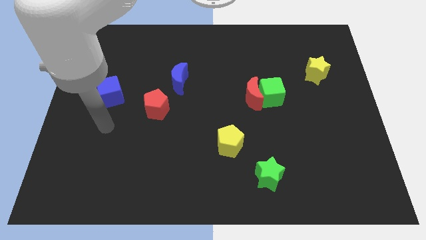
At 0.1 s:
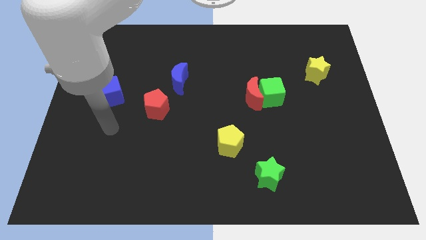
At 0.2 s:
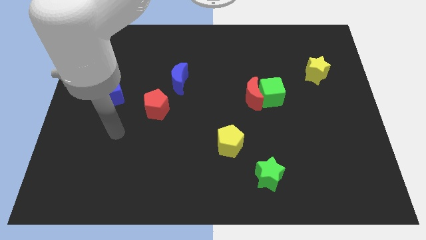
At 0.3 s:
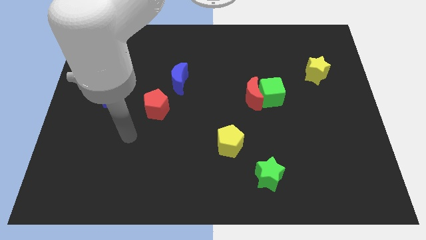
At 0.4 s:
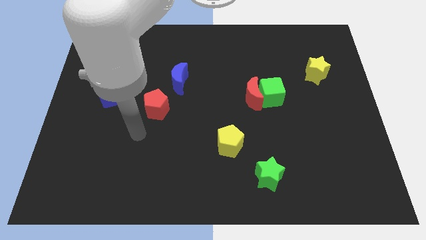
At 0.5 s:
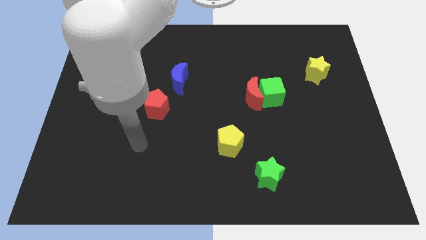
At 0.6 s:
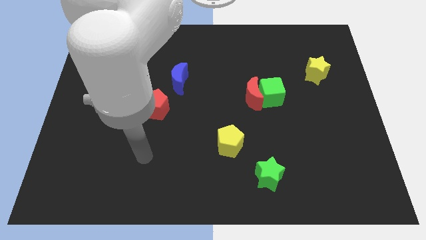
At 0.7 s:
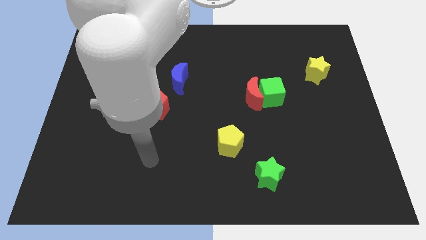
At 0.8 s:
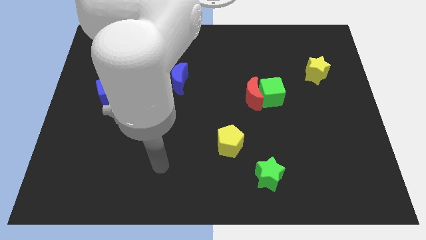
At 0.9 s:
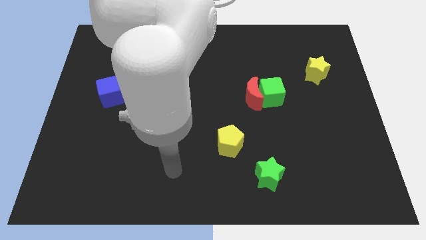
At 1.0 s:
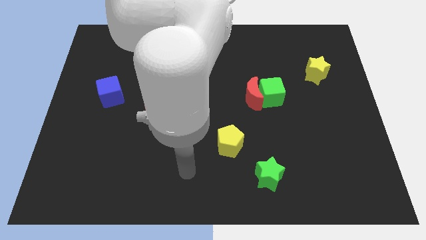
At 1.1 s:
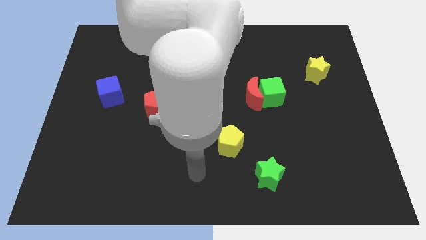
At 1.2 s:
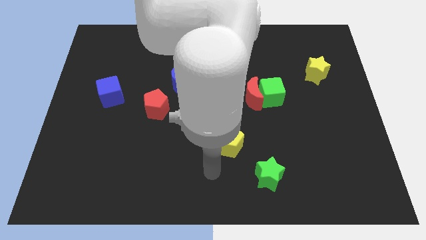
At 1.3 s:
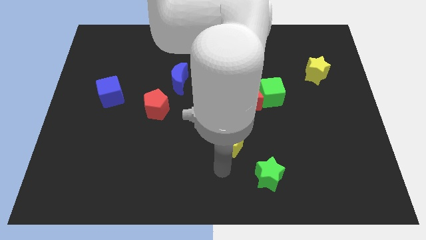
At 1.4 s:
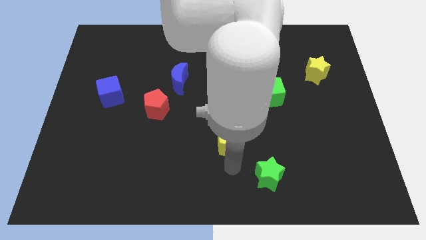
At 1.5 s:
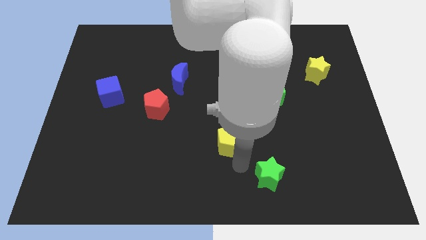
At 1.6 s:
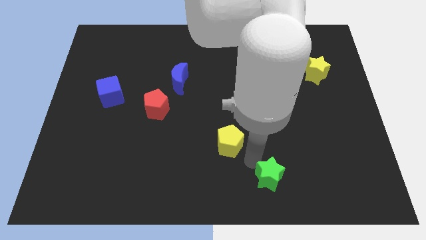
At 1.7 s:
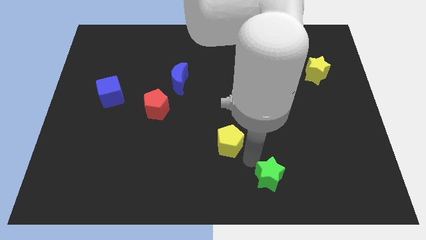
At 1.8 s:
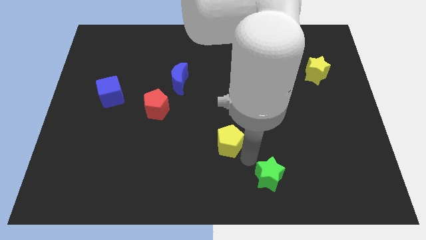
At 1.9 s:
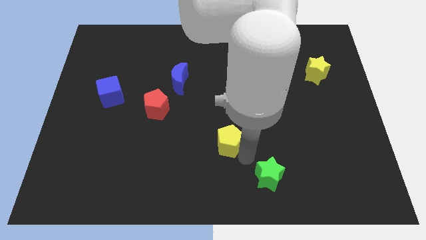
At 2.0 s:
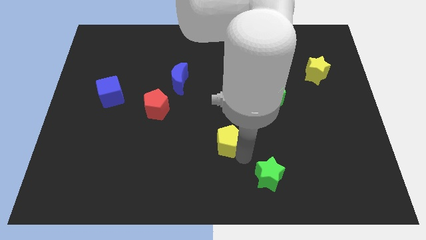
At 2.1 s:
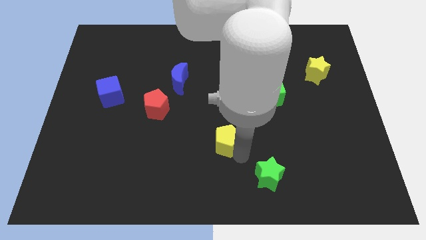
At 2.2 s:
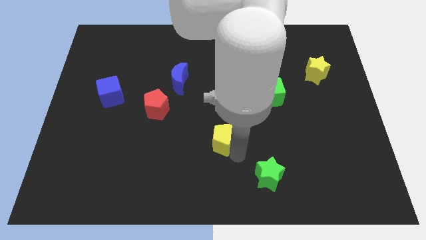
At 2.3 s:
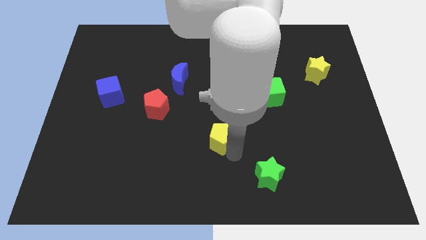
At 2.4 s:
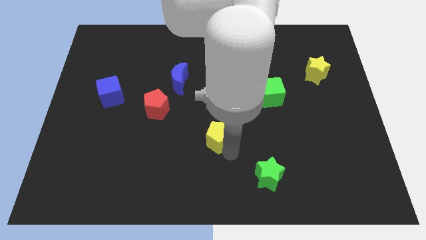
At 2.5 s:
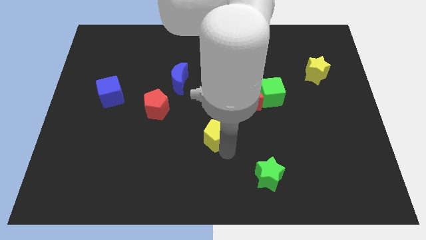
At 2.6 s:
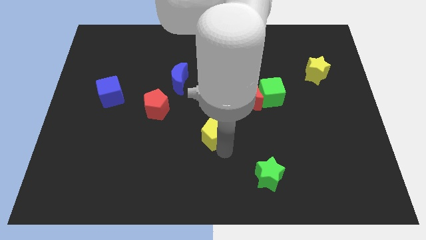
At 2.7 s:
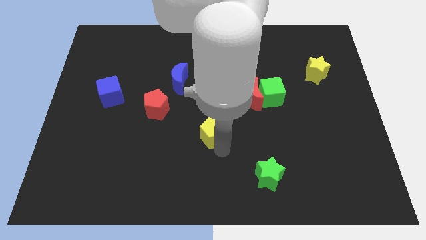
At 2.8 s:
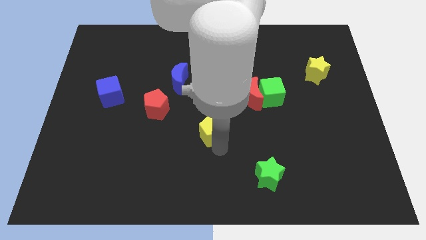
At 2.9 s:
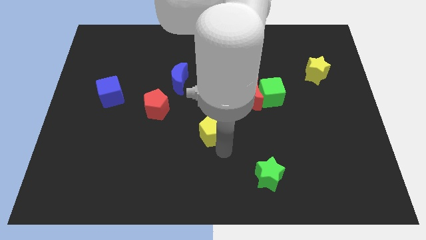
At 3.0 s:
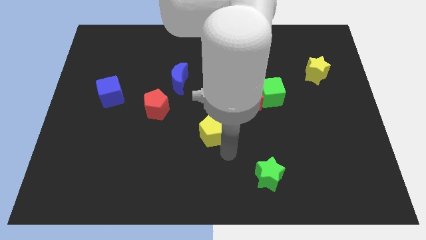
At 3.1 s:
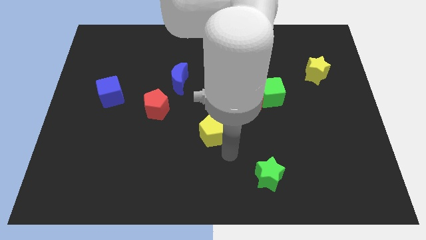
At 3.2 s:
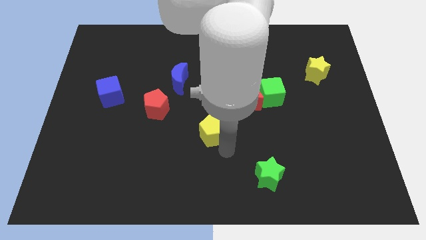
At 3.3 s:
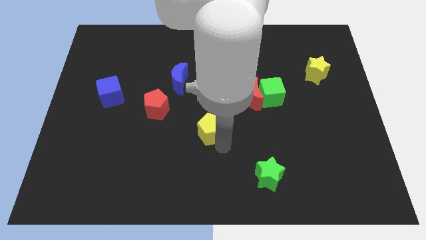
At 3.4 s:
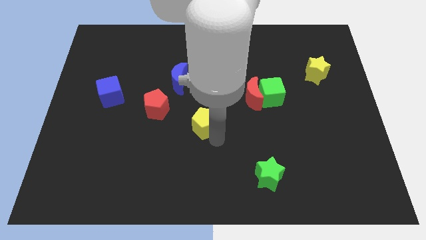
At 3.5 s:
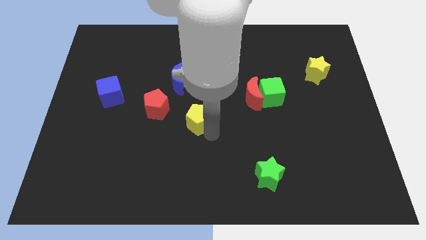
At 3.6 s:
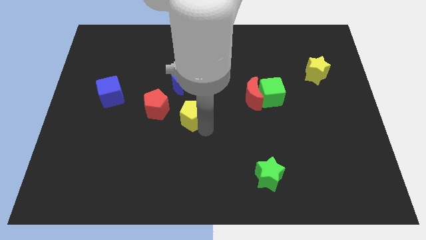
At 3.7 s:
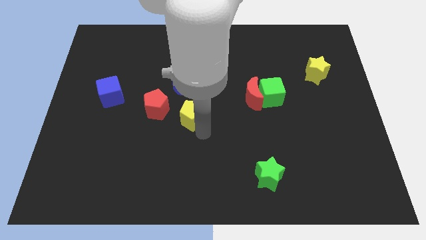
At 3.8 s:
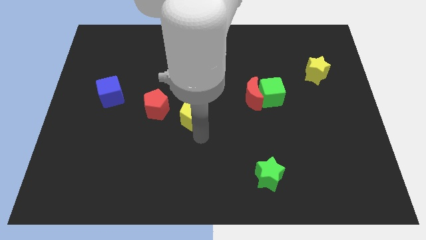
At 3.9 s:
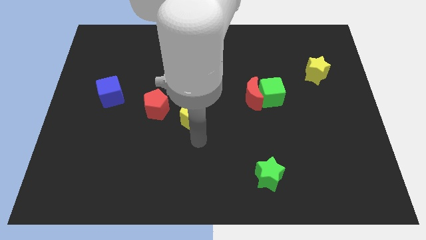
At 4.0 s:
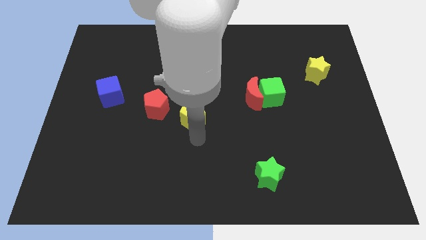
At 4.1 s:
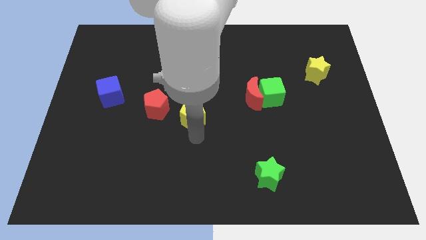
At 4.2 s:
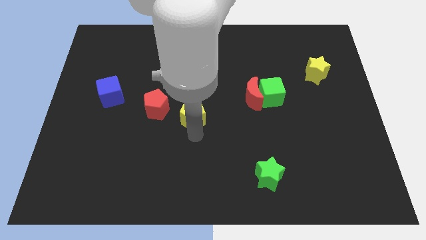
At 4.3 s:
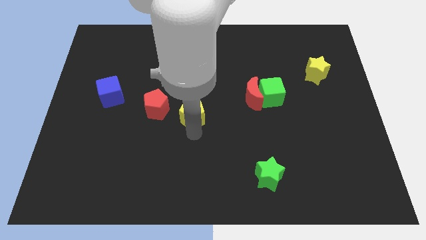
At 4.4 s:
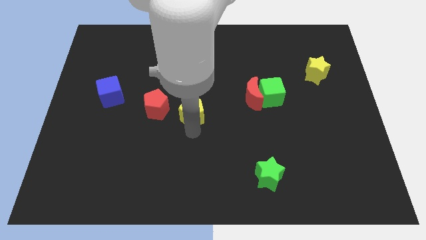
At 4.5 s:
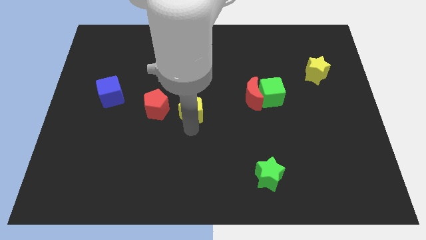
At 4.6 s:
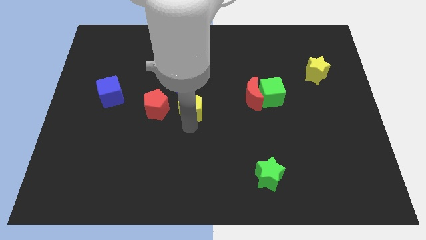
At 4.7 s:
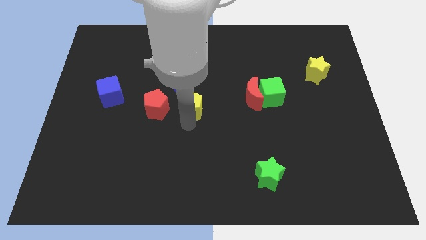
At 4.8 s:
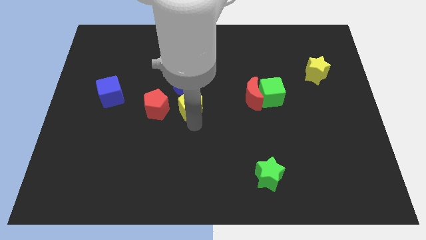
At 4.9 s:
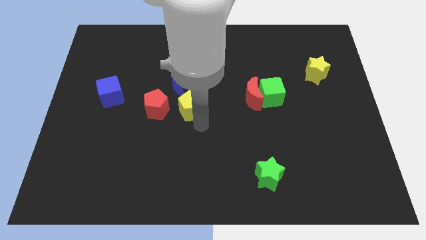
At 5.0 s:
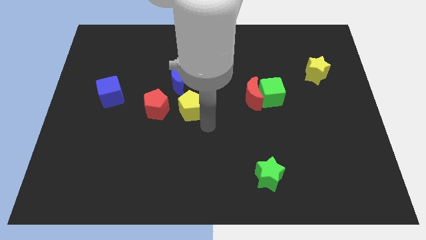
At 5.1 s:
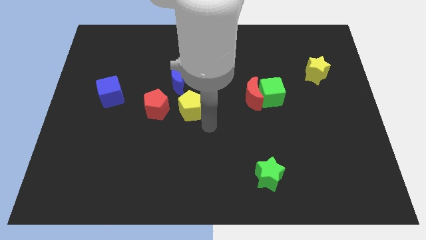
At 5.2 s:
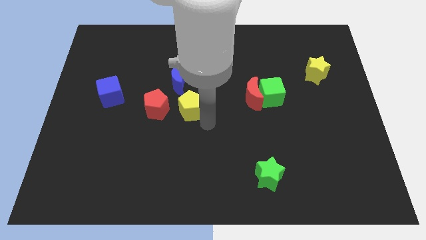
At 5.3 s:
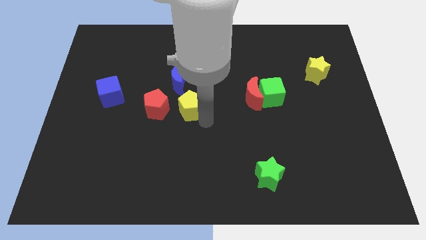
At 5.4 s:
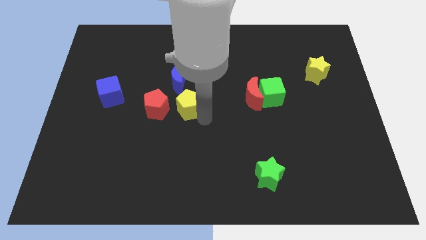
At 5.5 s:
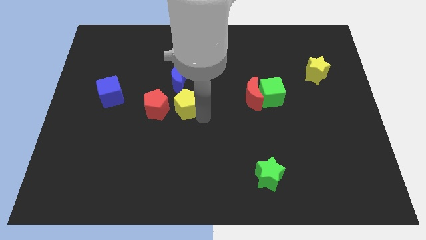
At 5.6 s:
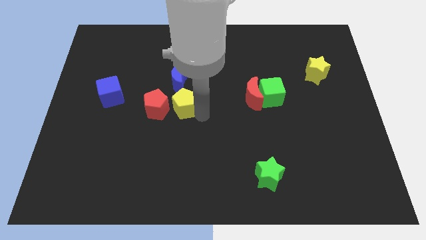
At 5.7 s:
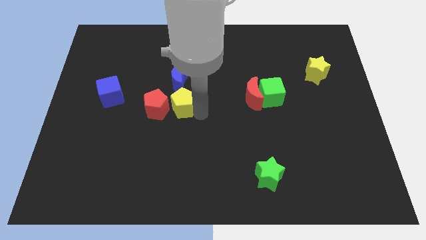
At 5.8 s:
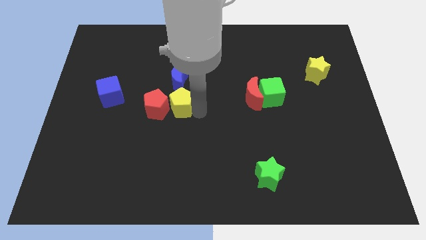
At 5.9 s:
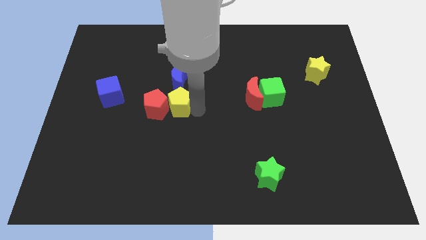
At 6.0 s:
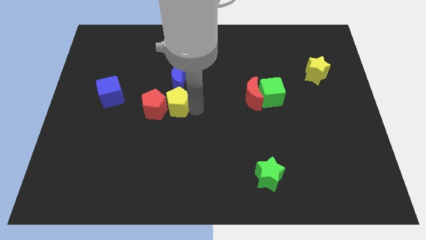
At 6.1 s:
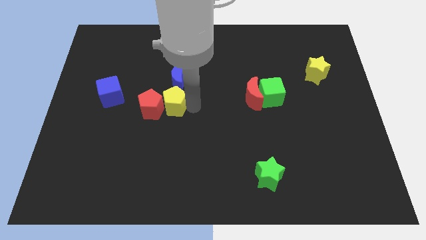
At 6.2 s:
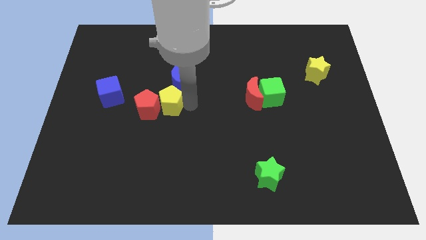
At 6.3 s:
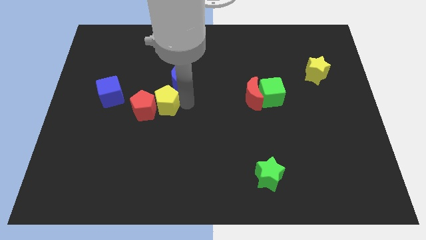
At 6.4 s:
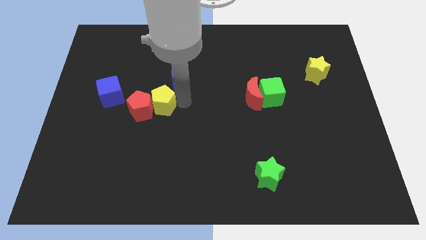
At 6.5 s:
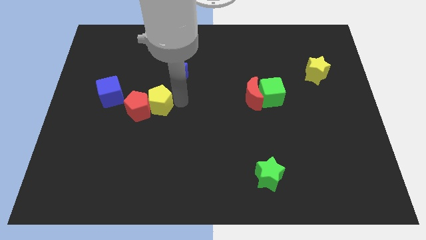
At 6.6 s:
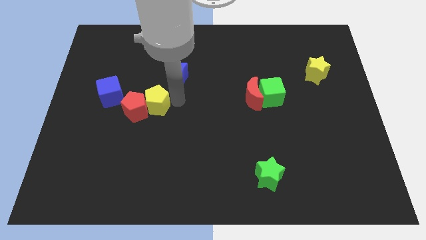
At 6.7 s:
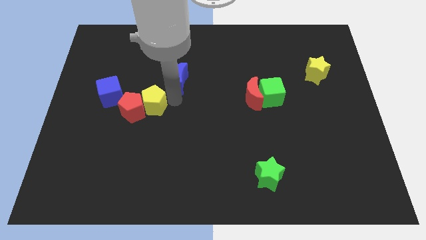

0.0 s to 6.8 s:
move the yellow pentagon up and left diagonally

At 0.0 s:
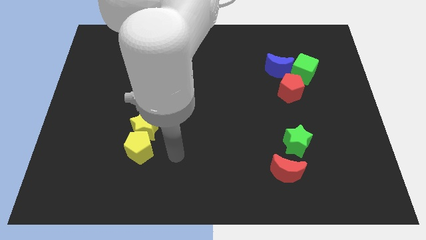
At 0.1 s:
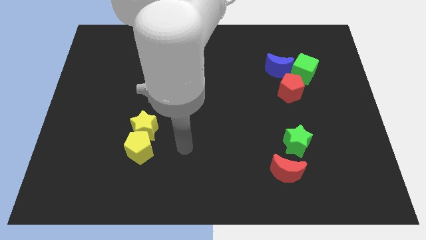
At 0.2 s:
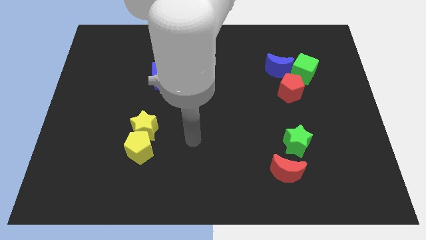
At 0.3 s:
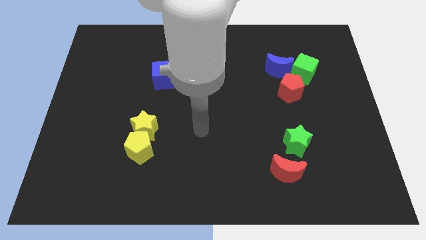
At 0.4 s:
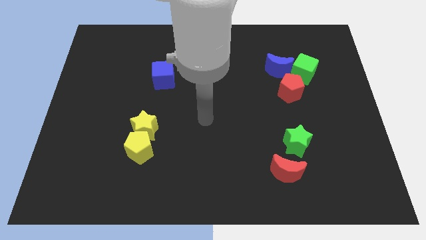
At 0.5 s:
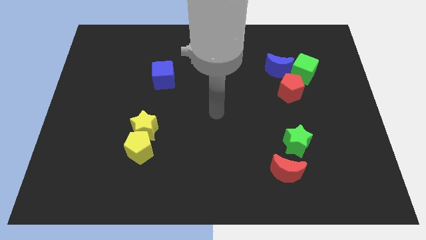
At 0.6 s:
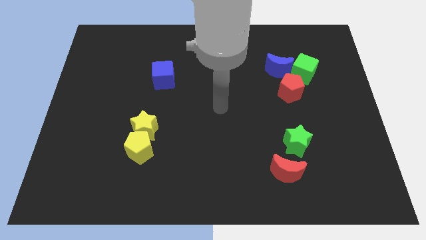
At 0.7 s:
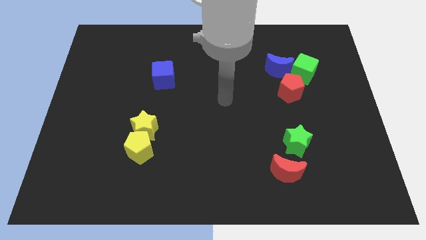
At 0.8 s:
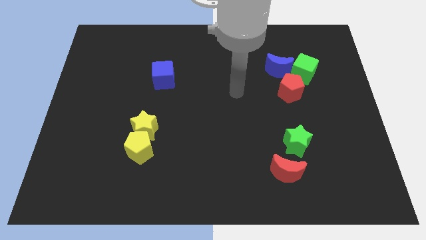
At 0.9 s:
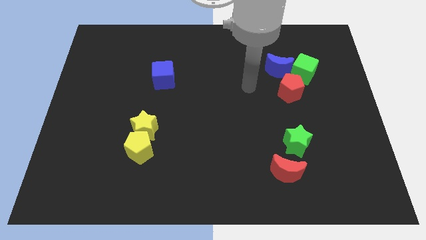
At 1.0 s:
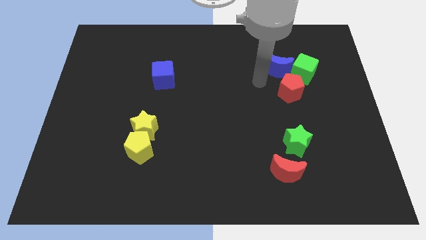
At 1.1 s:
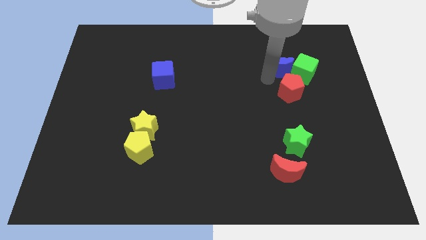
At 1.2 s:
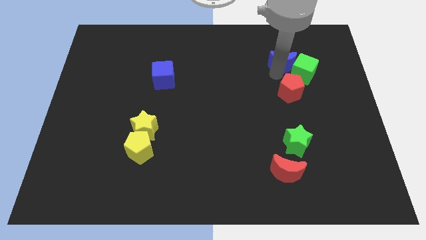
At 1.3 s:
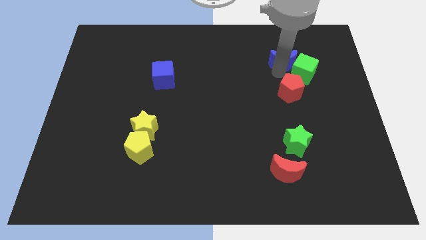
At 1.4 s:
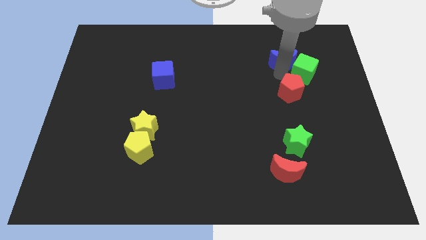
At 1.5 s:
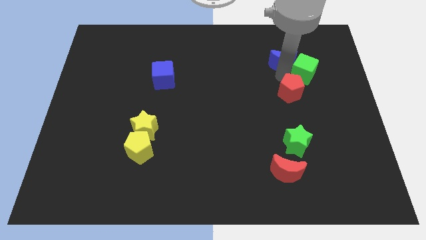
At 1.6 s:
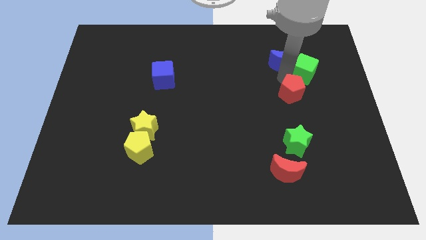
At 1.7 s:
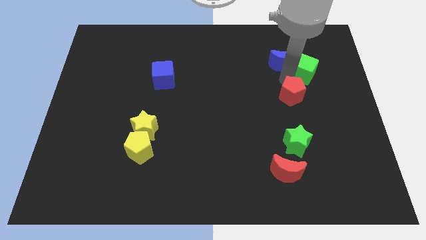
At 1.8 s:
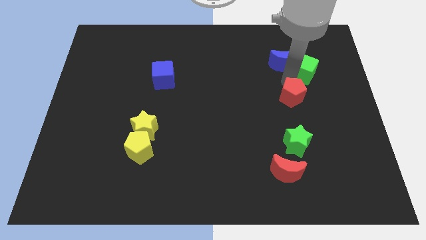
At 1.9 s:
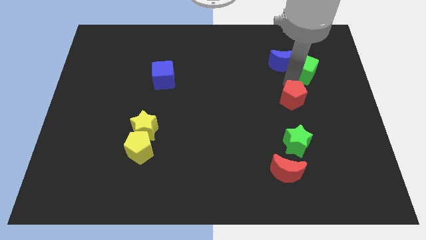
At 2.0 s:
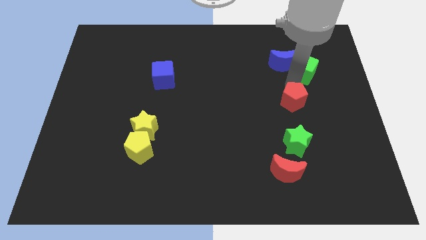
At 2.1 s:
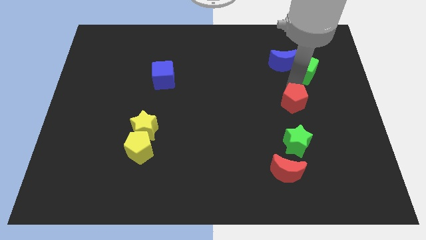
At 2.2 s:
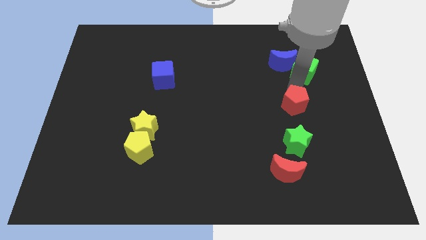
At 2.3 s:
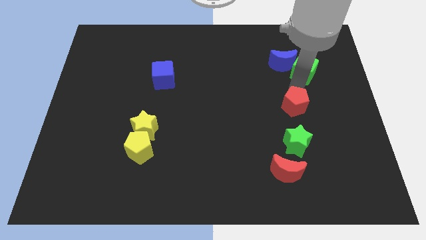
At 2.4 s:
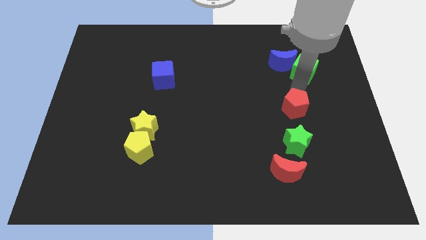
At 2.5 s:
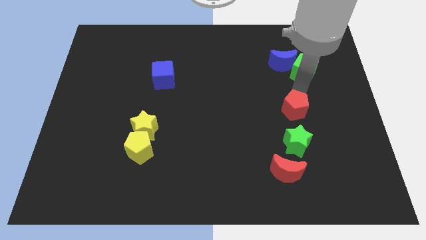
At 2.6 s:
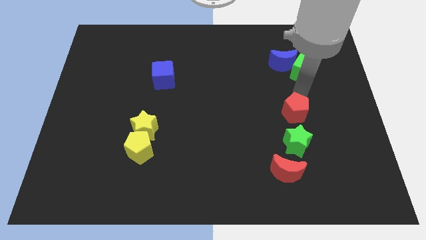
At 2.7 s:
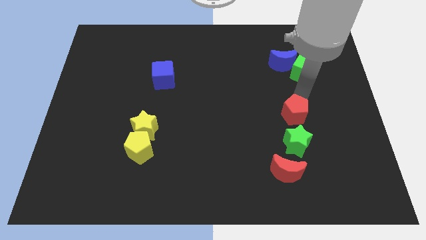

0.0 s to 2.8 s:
push the red pentagon somewhat downwards
